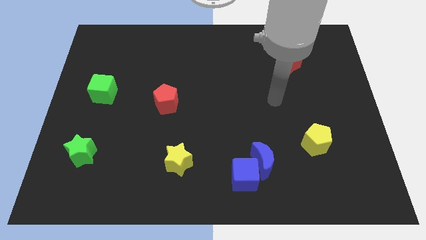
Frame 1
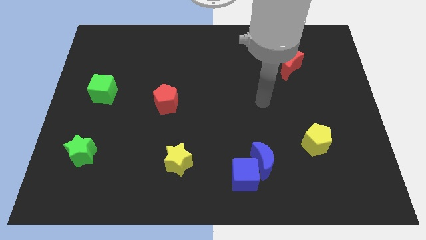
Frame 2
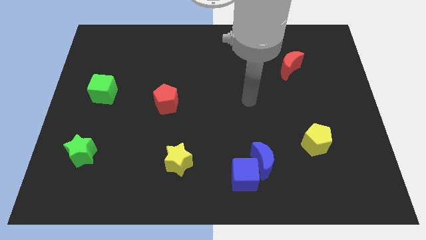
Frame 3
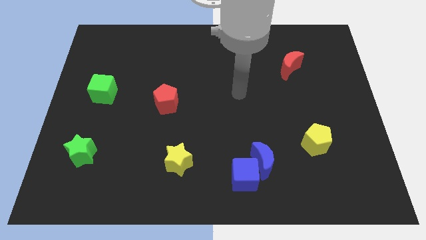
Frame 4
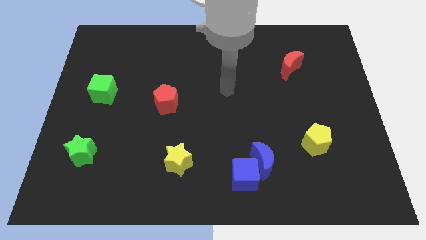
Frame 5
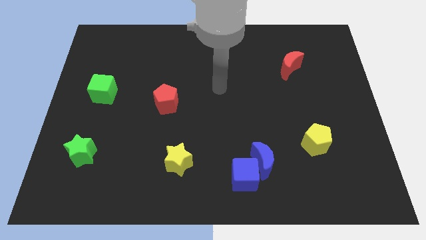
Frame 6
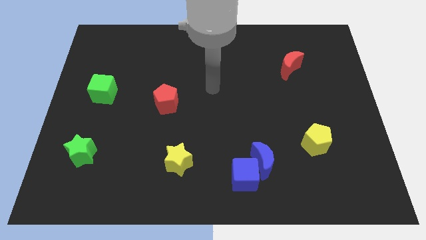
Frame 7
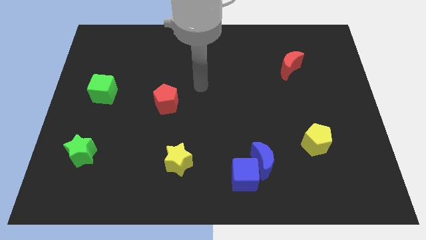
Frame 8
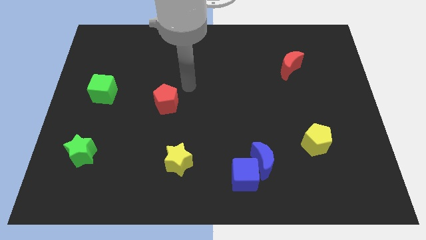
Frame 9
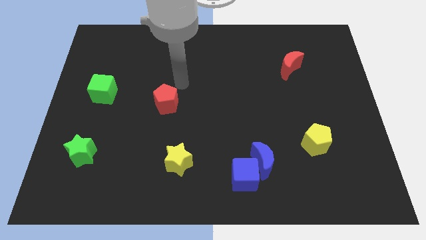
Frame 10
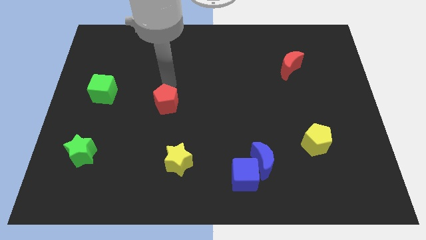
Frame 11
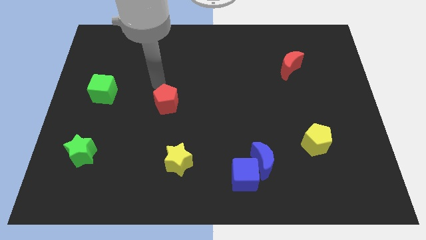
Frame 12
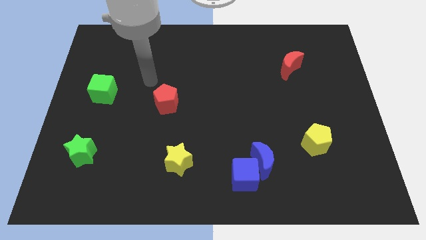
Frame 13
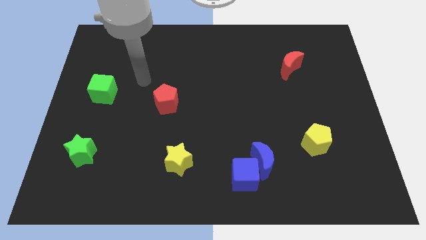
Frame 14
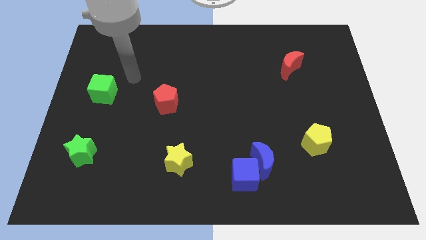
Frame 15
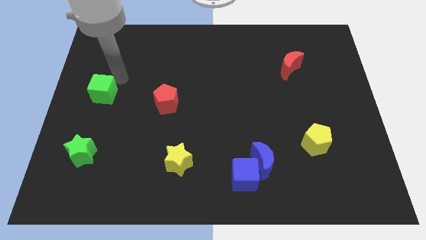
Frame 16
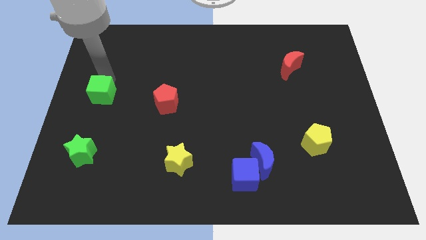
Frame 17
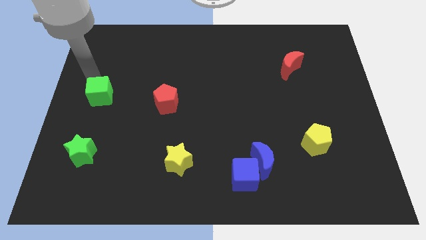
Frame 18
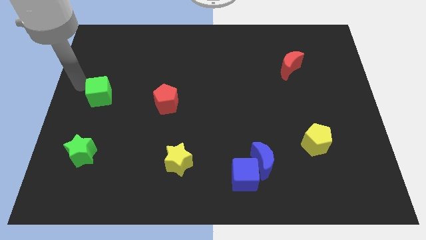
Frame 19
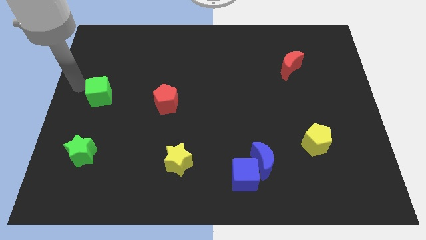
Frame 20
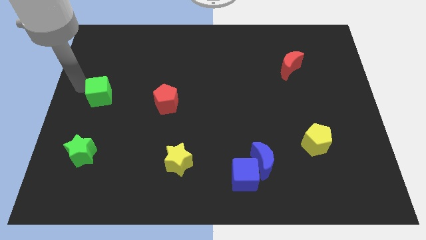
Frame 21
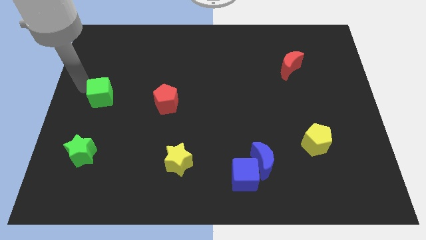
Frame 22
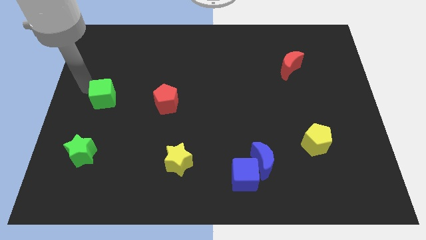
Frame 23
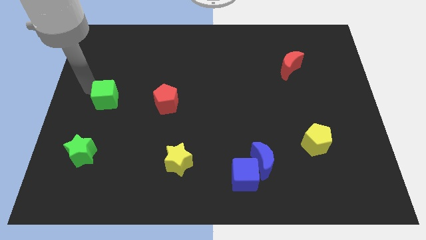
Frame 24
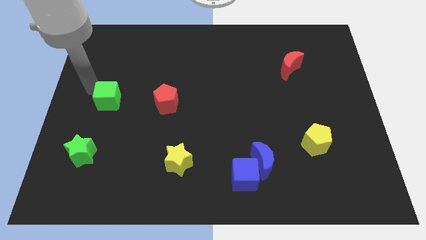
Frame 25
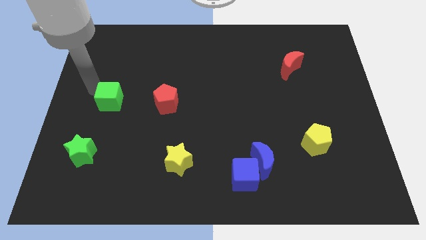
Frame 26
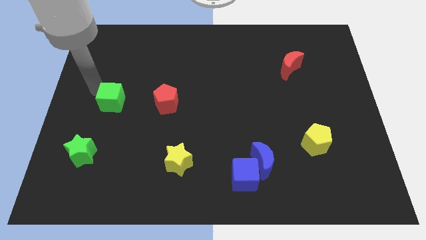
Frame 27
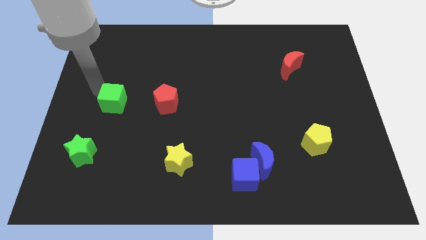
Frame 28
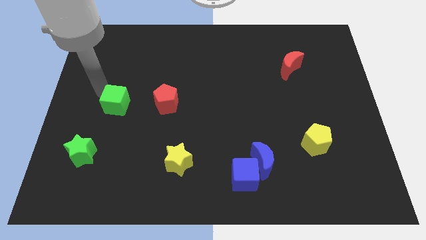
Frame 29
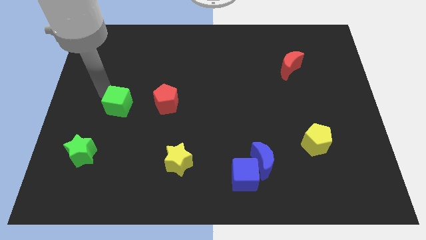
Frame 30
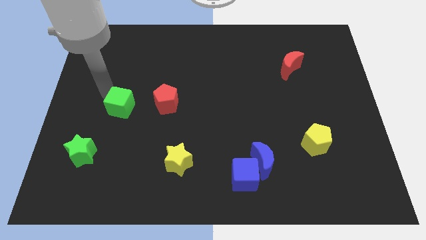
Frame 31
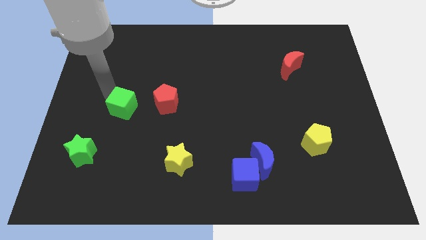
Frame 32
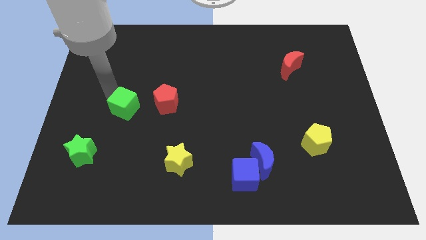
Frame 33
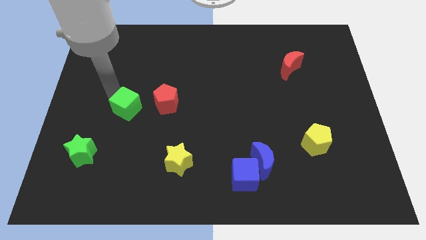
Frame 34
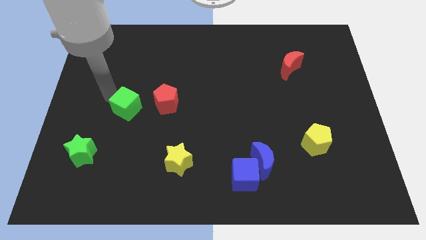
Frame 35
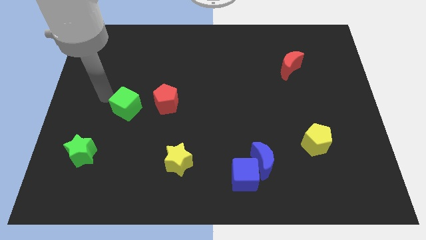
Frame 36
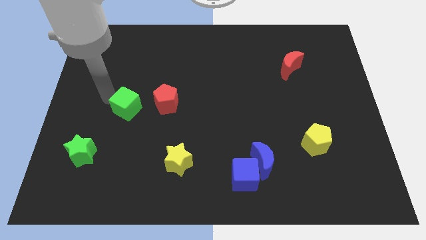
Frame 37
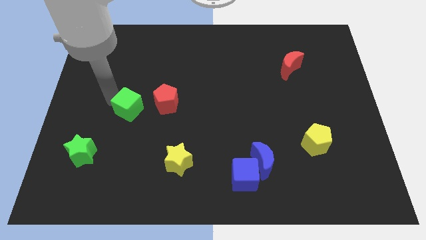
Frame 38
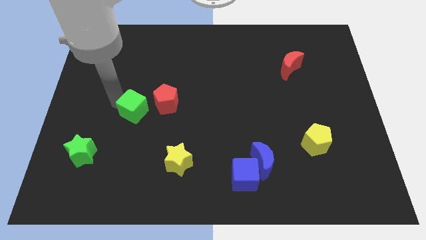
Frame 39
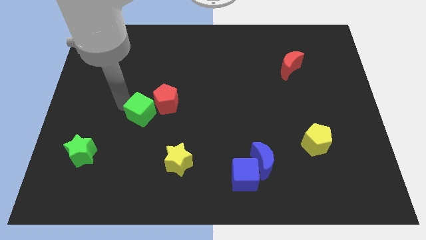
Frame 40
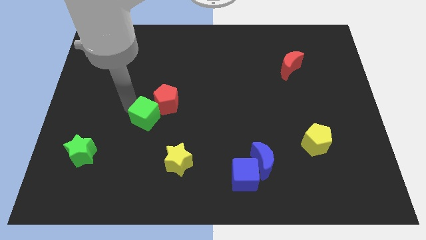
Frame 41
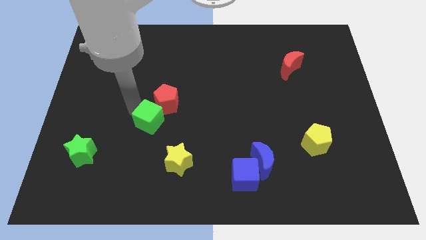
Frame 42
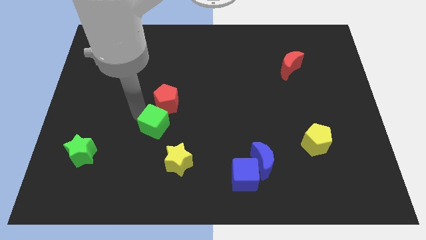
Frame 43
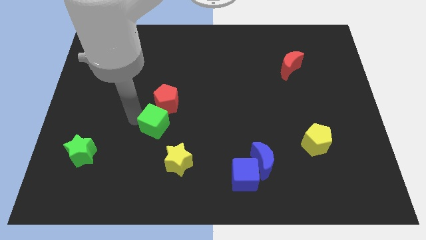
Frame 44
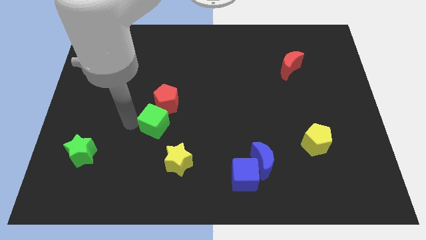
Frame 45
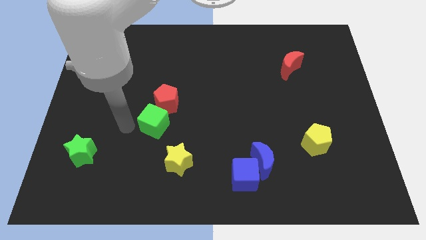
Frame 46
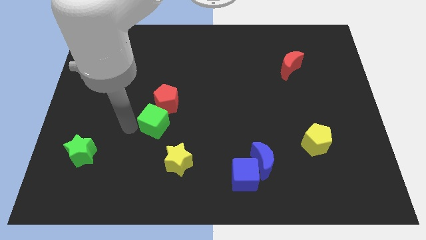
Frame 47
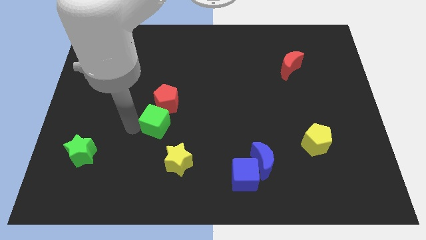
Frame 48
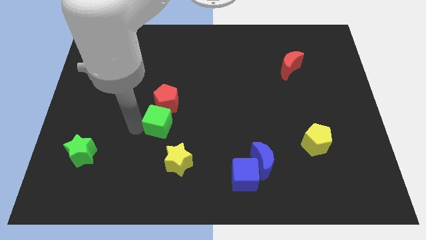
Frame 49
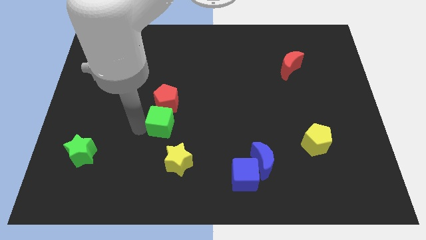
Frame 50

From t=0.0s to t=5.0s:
push the green cube above the yellow star

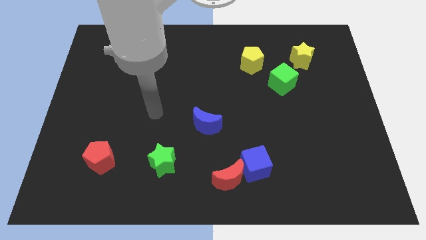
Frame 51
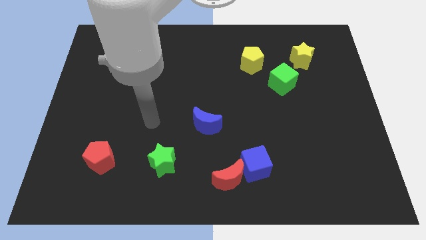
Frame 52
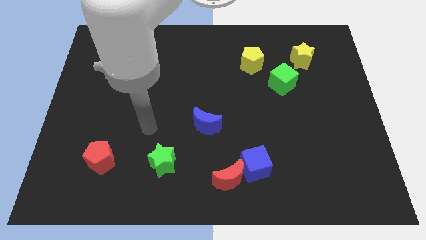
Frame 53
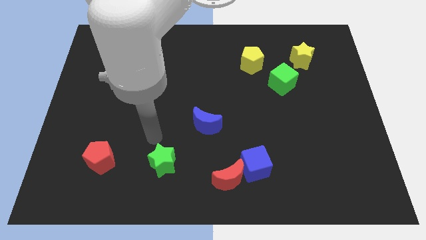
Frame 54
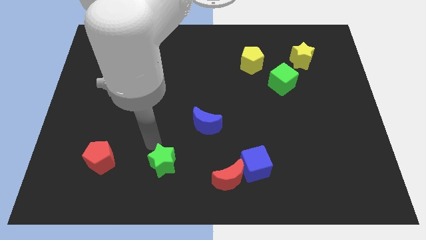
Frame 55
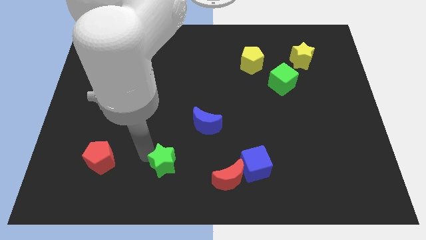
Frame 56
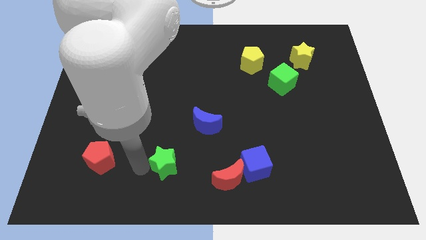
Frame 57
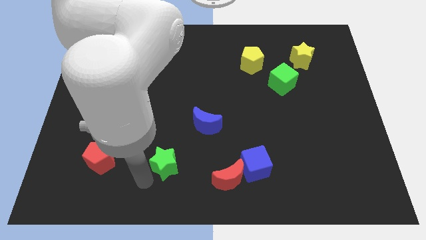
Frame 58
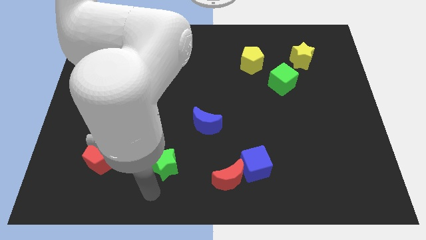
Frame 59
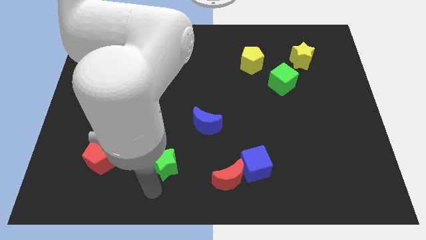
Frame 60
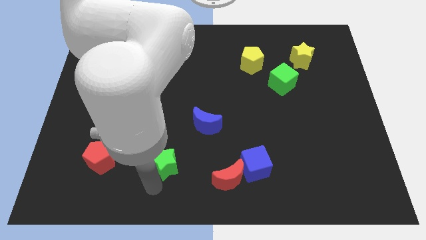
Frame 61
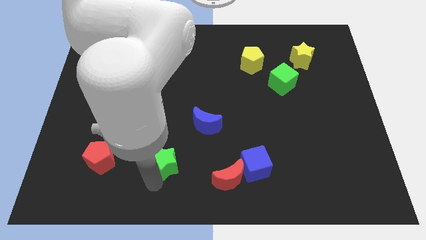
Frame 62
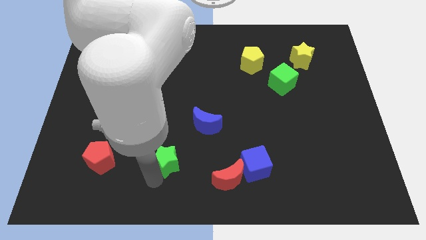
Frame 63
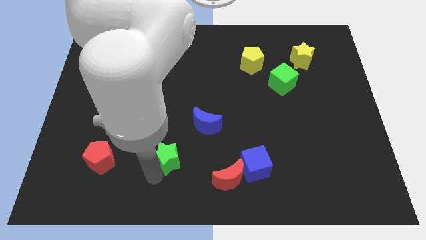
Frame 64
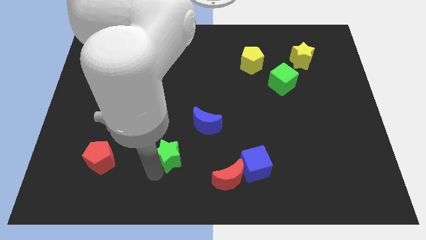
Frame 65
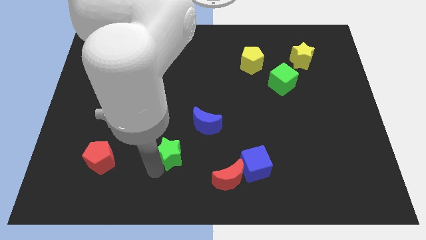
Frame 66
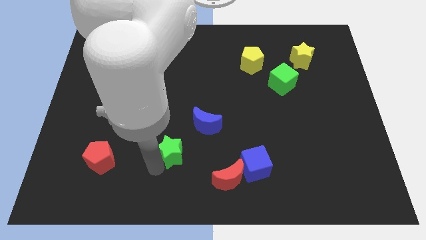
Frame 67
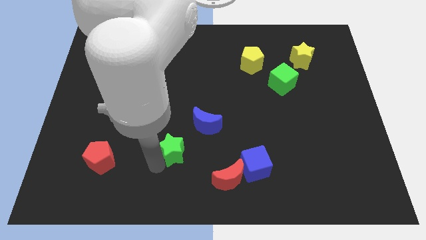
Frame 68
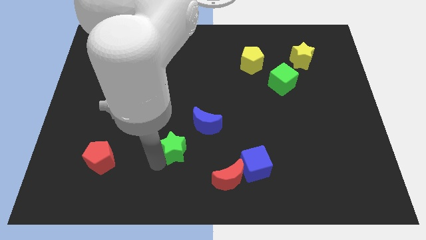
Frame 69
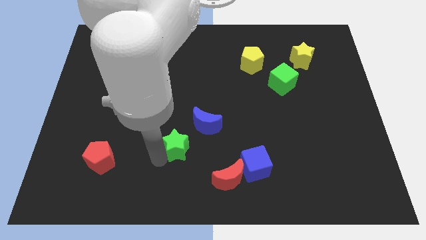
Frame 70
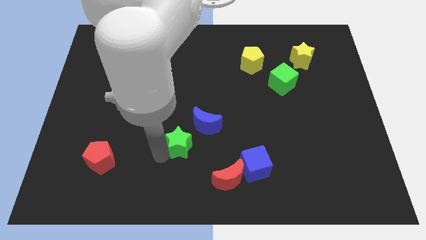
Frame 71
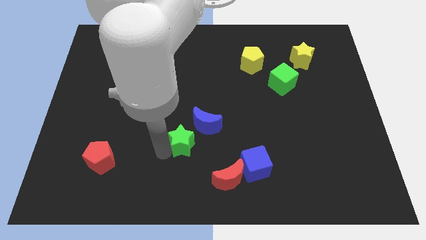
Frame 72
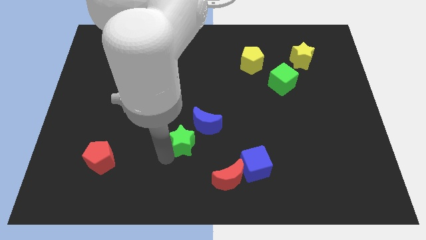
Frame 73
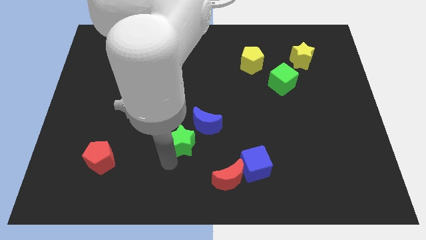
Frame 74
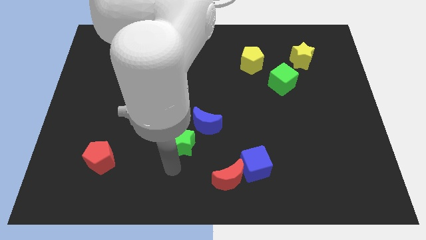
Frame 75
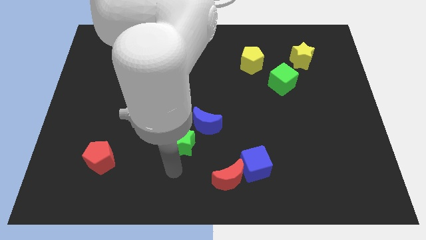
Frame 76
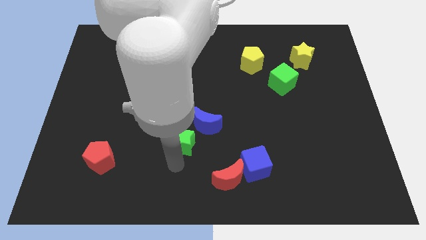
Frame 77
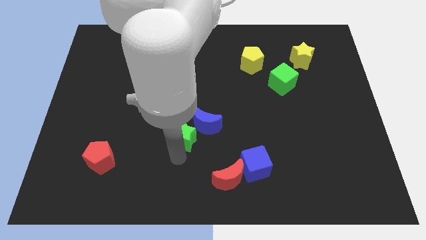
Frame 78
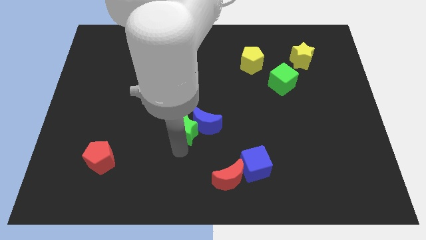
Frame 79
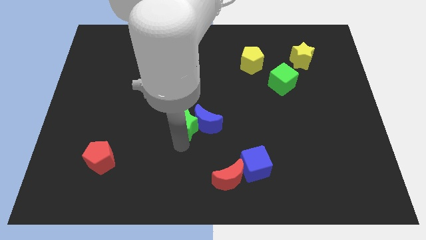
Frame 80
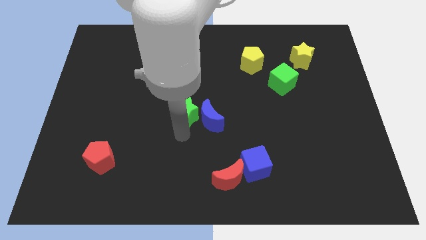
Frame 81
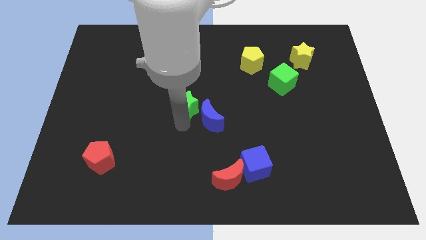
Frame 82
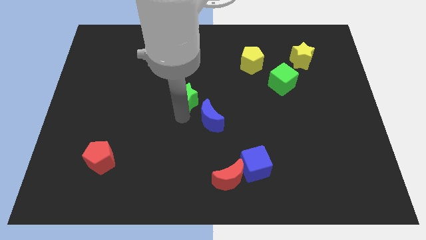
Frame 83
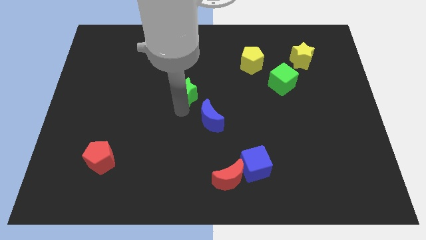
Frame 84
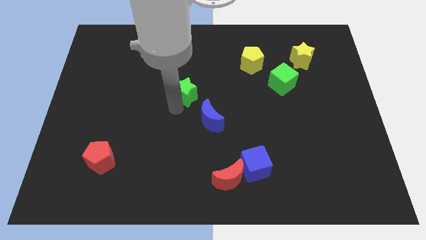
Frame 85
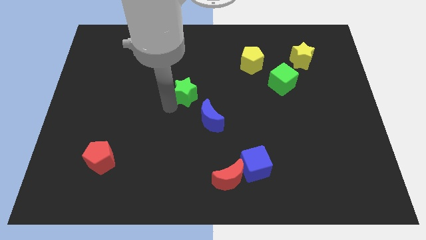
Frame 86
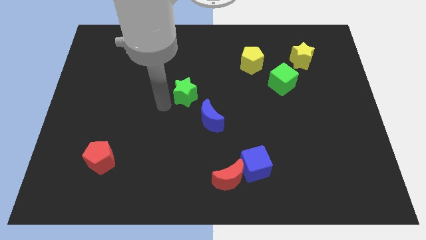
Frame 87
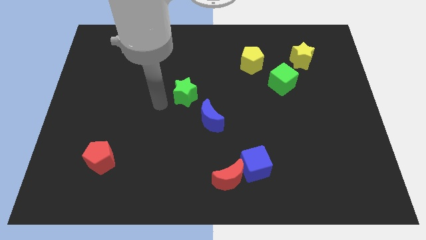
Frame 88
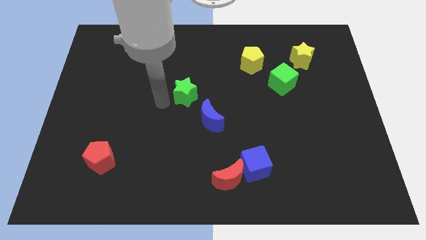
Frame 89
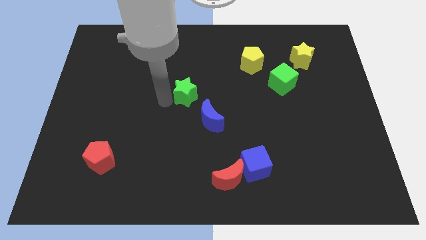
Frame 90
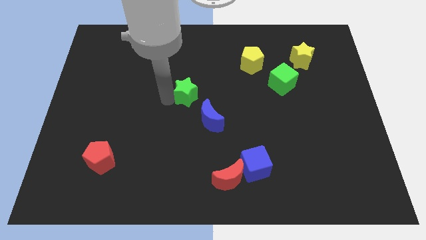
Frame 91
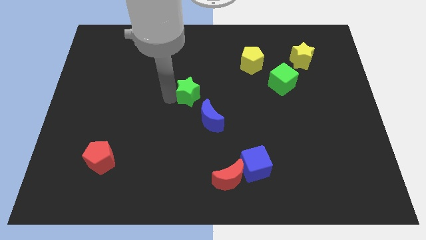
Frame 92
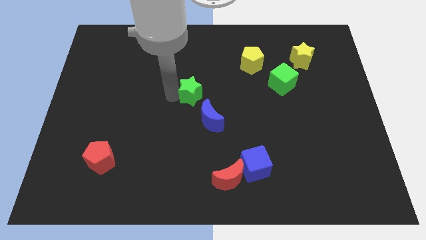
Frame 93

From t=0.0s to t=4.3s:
put the green star to the top of the blue moon
